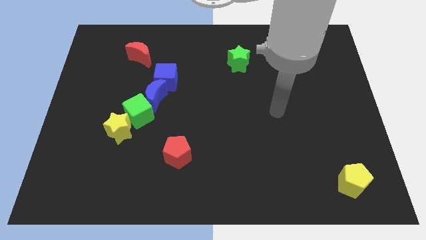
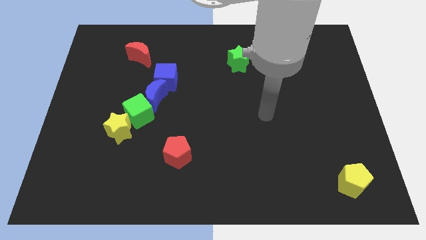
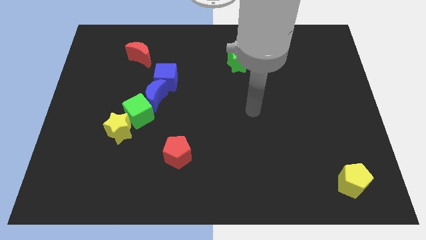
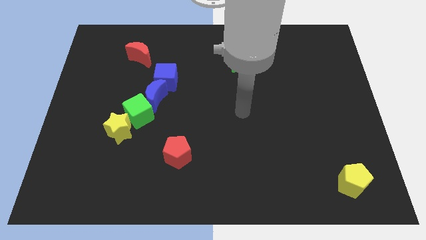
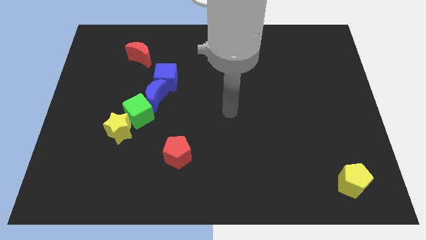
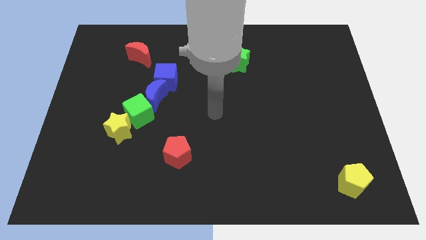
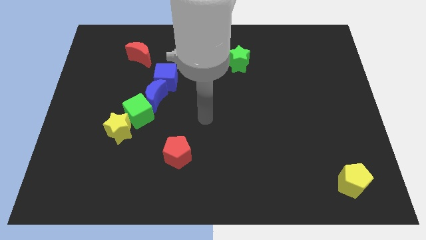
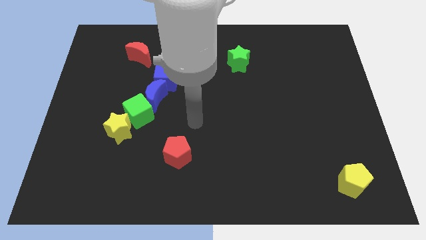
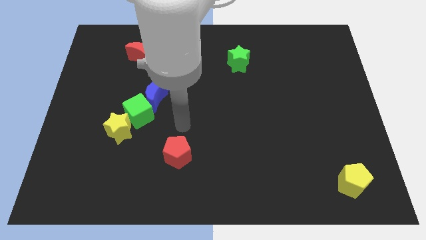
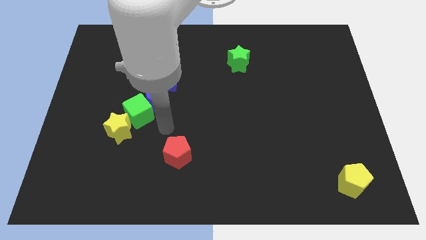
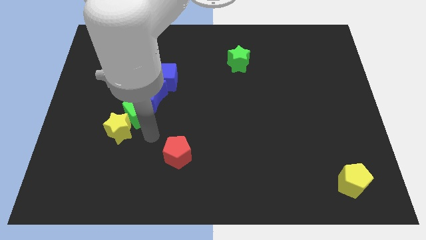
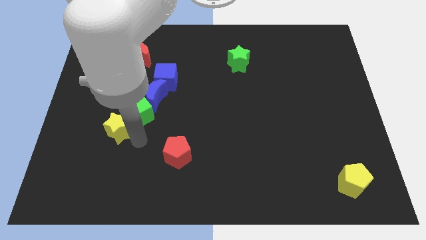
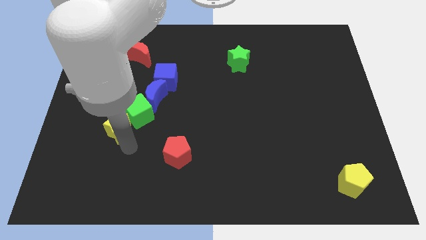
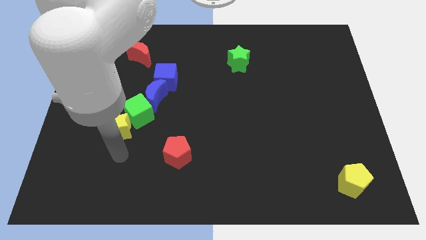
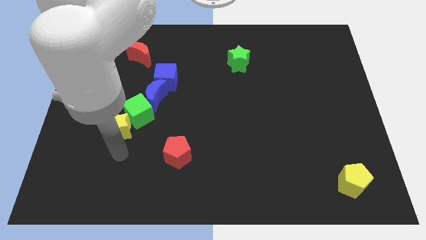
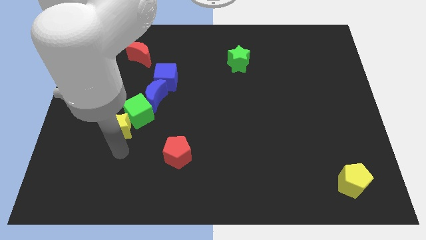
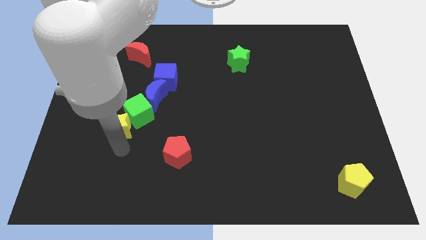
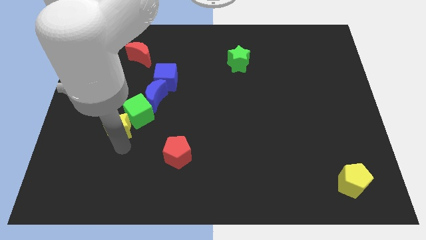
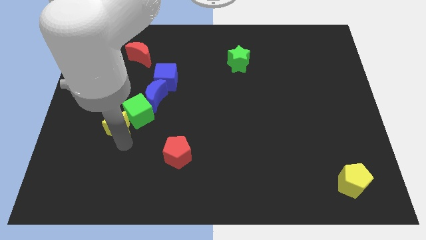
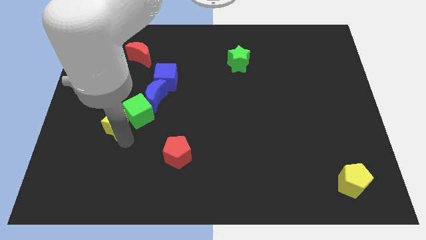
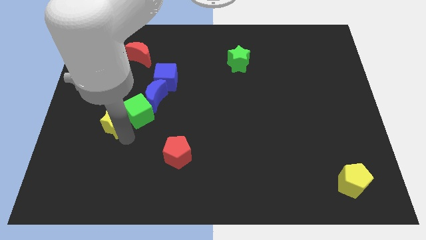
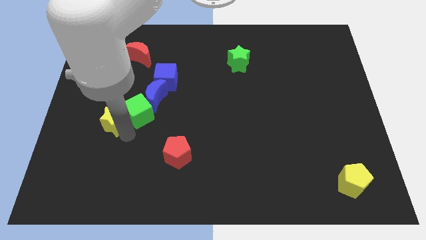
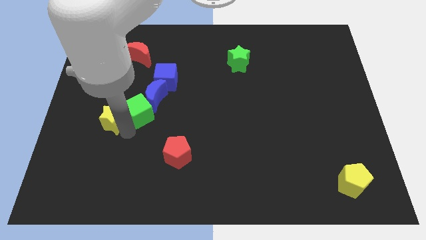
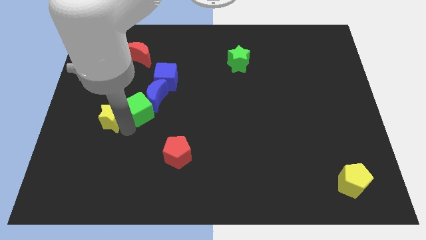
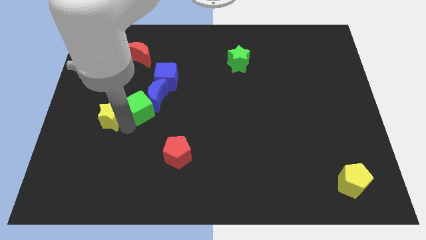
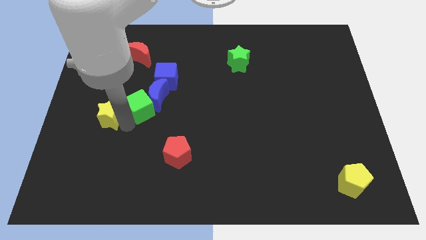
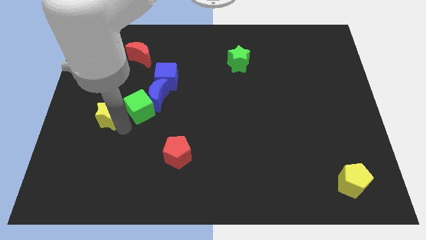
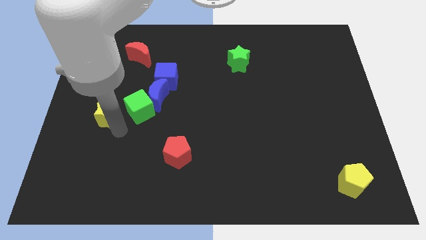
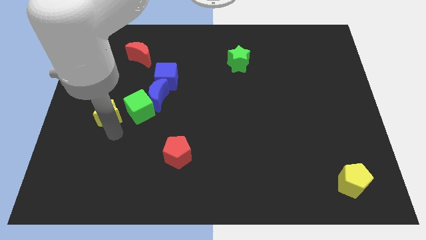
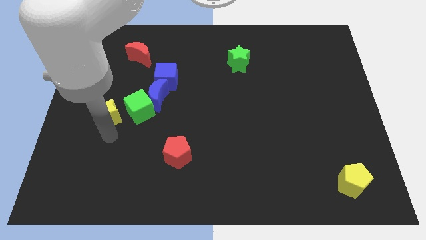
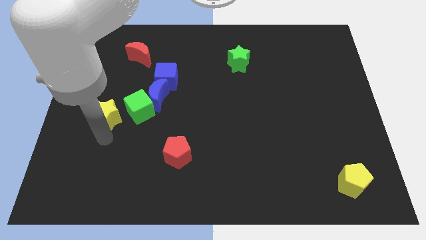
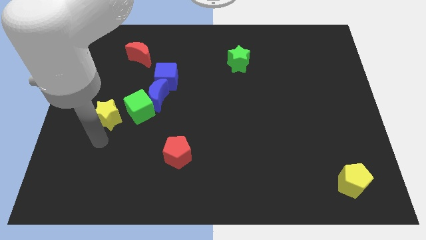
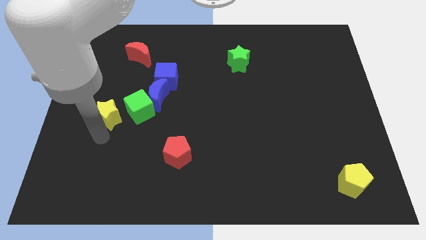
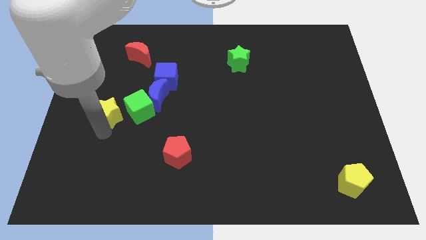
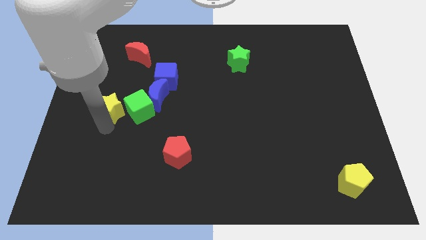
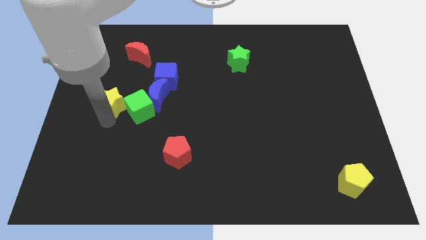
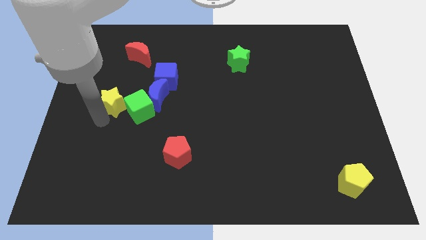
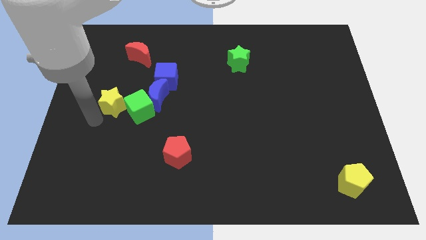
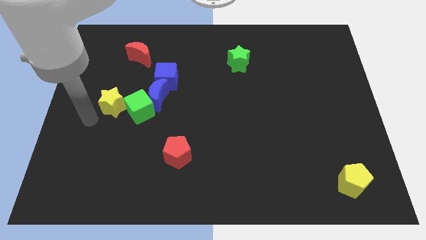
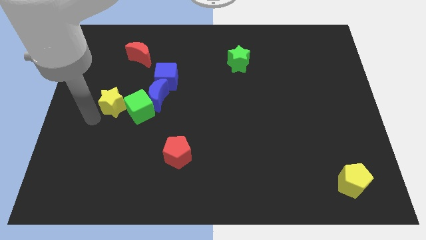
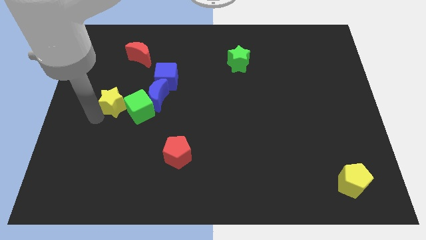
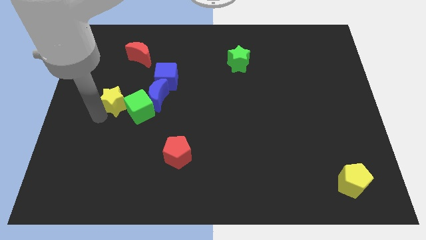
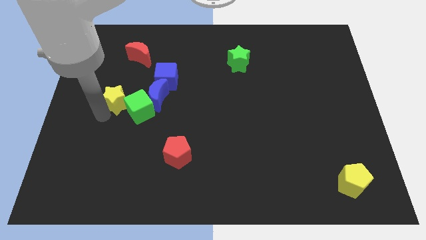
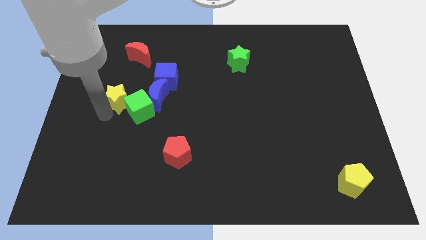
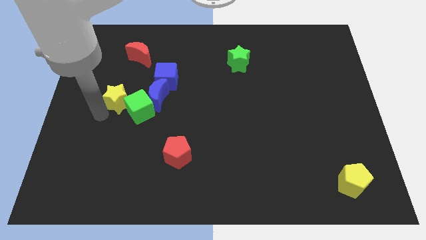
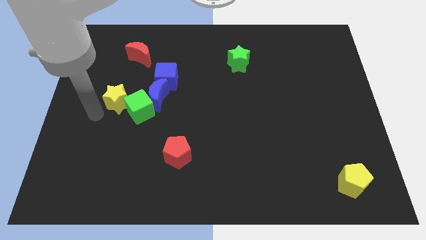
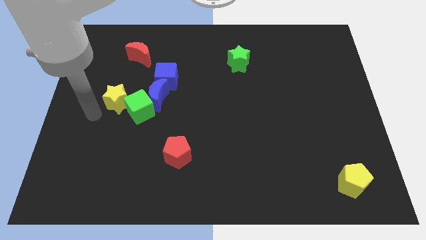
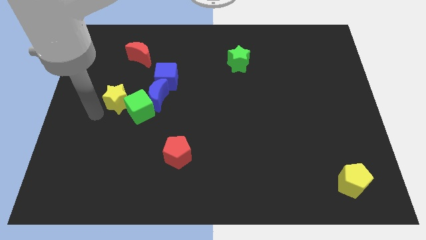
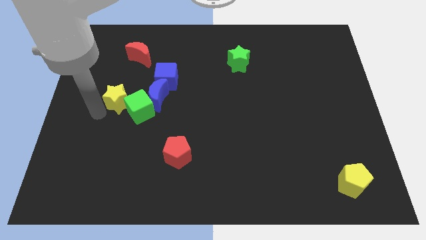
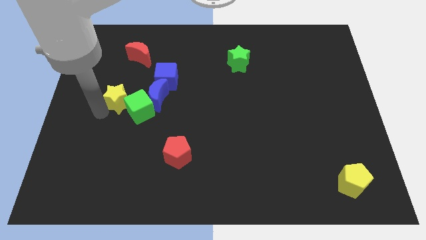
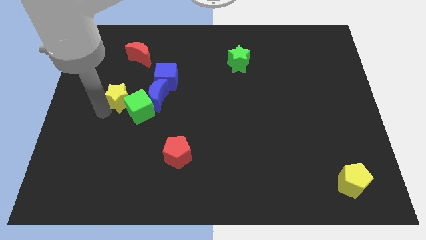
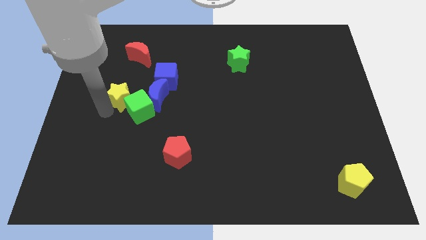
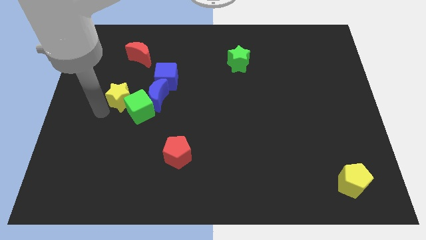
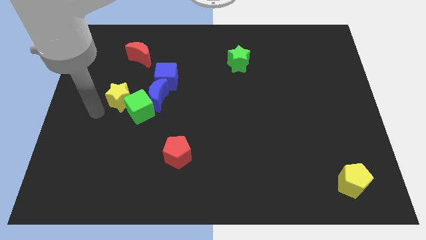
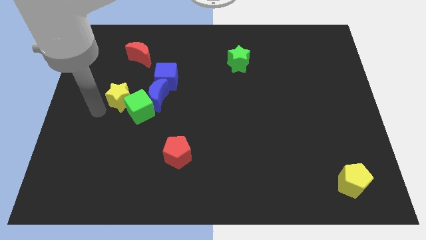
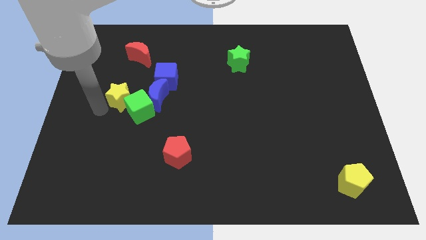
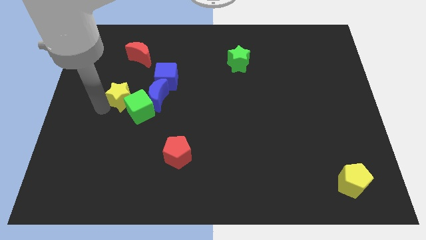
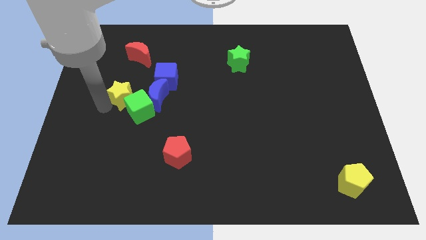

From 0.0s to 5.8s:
slide the yellow star to the top side of the green cube
